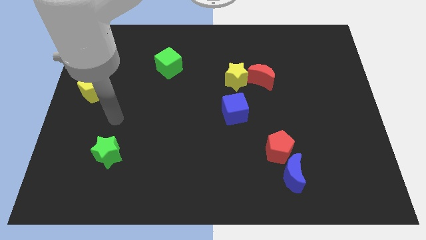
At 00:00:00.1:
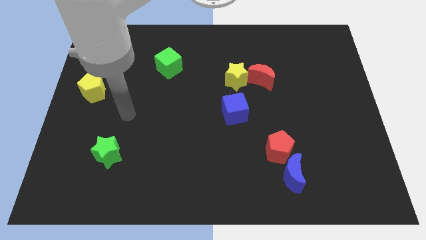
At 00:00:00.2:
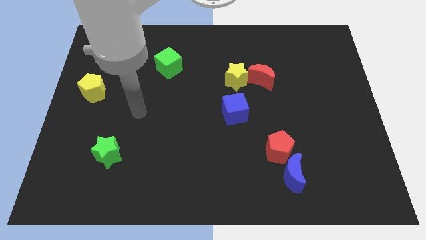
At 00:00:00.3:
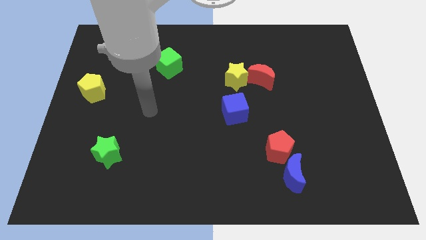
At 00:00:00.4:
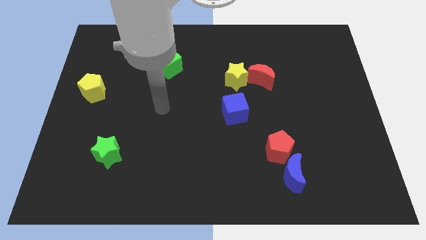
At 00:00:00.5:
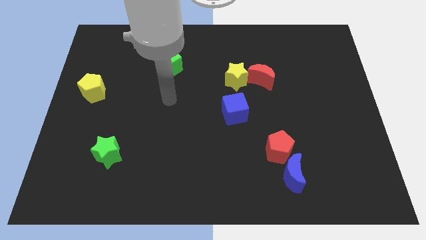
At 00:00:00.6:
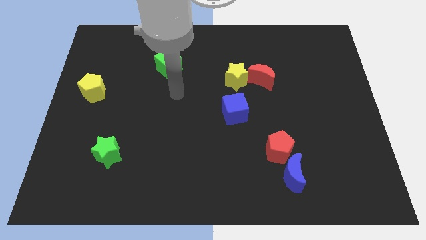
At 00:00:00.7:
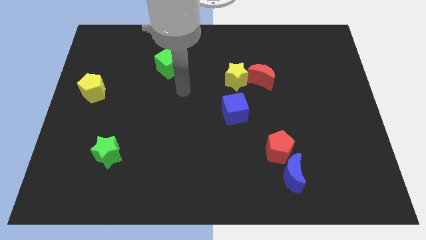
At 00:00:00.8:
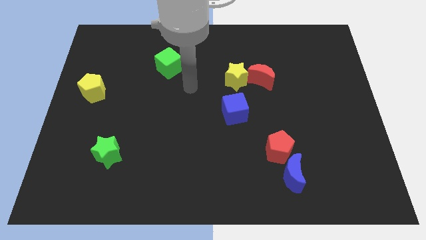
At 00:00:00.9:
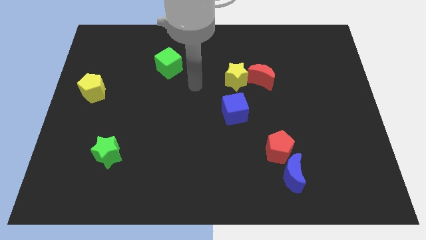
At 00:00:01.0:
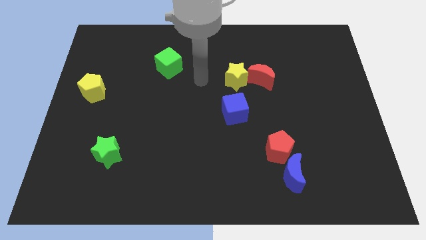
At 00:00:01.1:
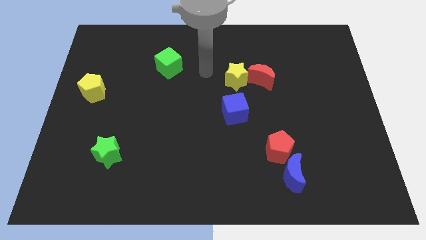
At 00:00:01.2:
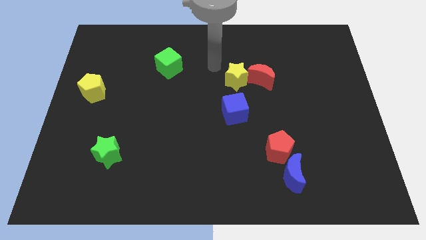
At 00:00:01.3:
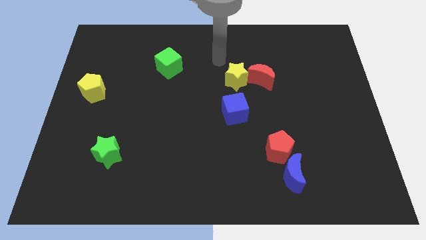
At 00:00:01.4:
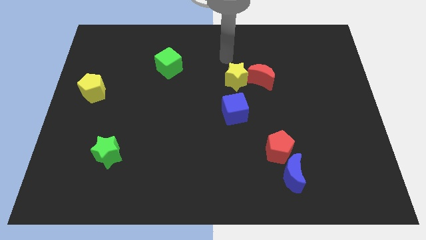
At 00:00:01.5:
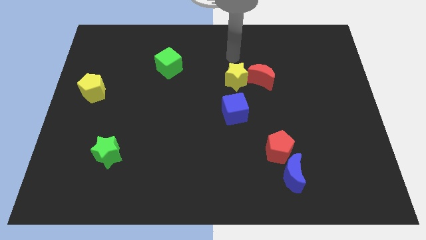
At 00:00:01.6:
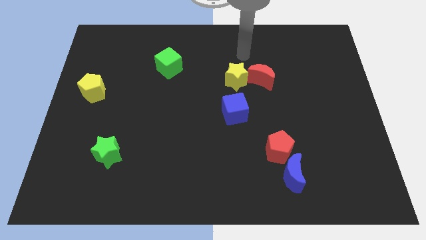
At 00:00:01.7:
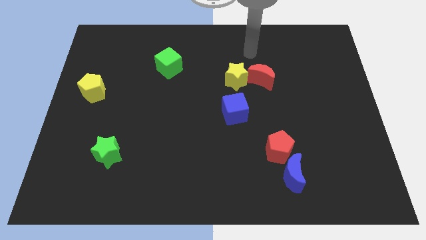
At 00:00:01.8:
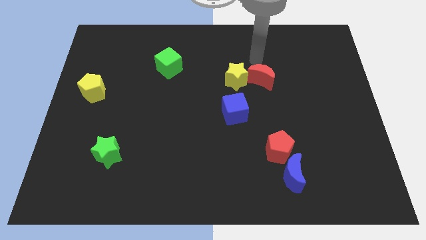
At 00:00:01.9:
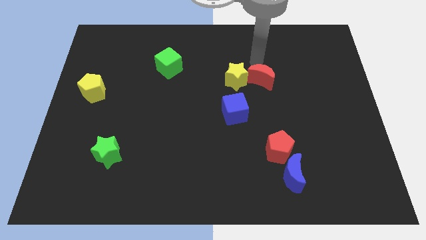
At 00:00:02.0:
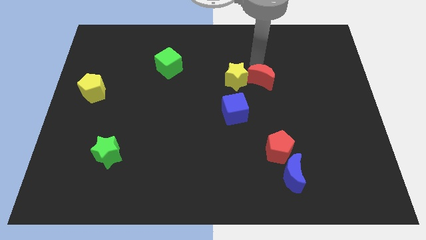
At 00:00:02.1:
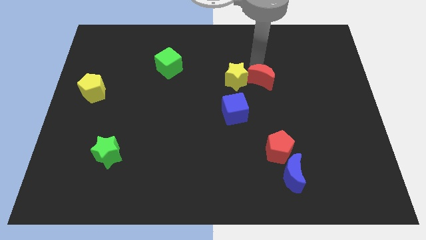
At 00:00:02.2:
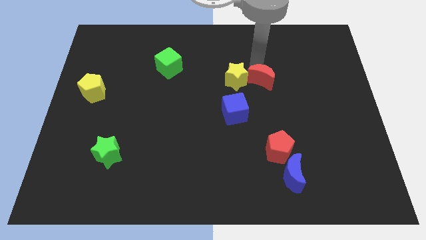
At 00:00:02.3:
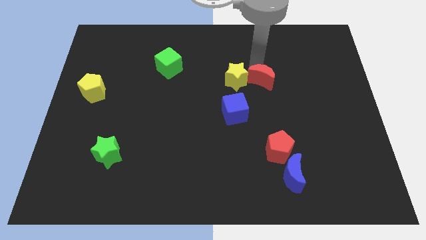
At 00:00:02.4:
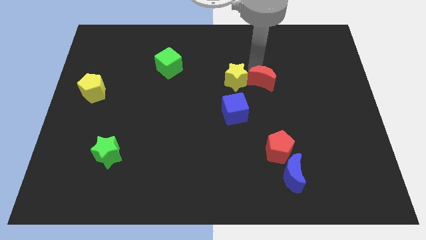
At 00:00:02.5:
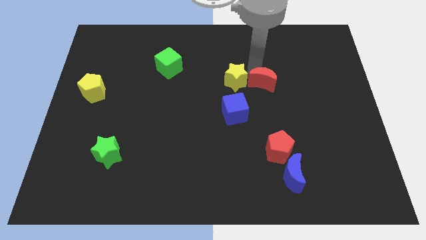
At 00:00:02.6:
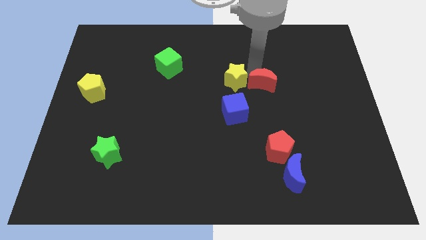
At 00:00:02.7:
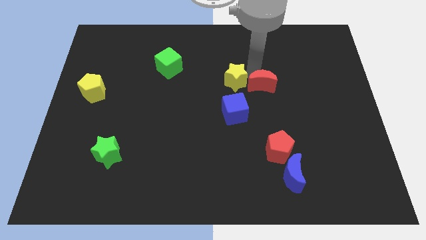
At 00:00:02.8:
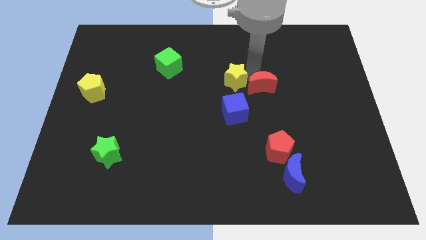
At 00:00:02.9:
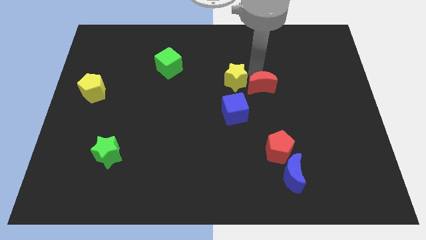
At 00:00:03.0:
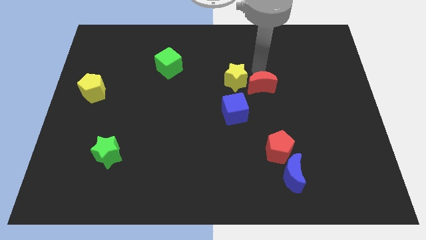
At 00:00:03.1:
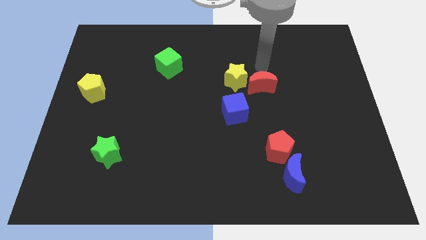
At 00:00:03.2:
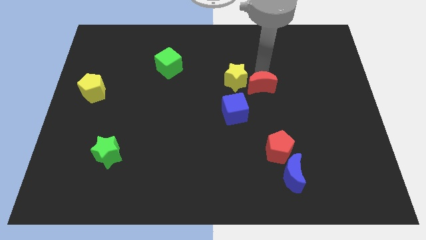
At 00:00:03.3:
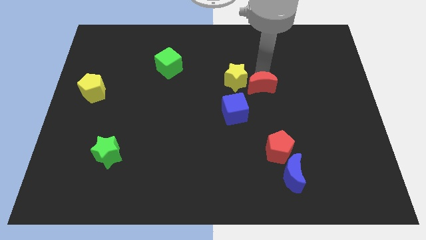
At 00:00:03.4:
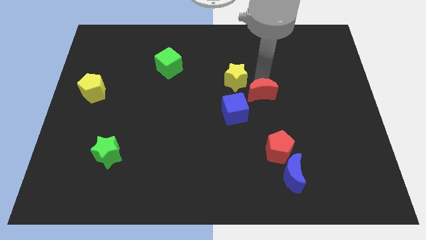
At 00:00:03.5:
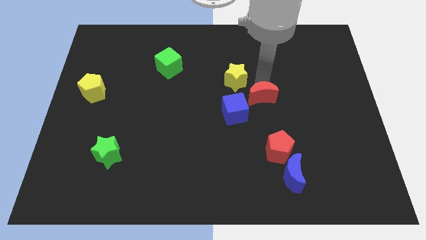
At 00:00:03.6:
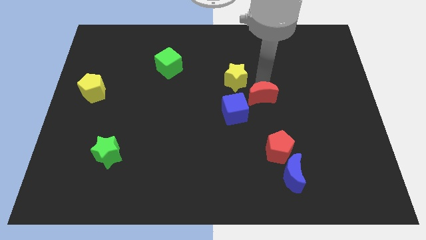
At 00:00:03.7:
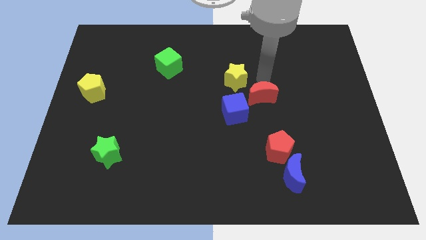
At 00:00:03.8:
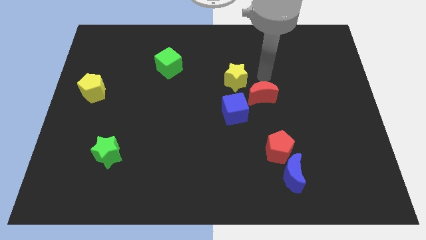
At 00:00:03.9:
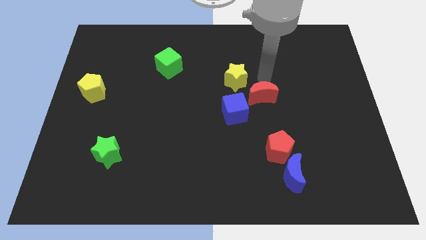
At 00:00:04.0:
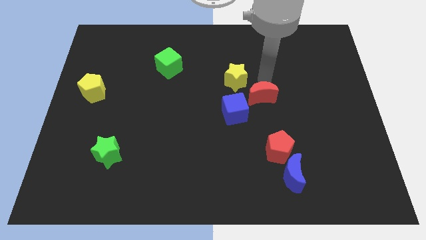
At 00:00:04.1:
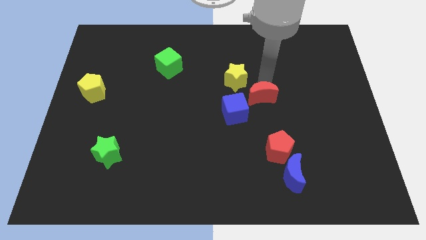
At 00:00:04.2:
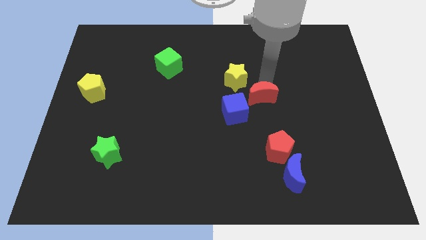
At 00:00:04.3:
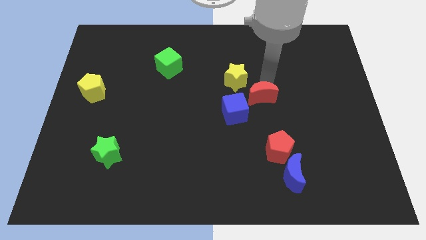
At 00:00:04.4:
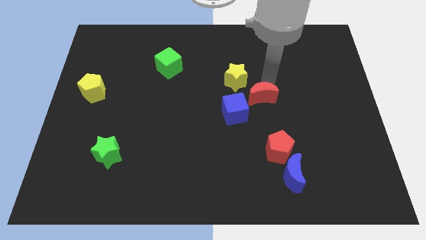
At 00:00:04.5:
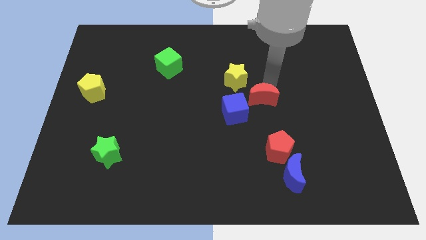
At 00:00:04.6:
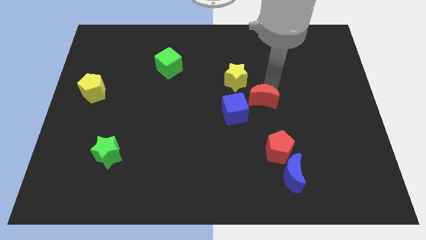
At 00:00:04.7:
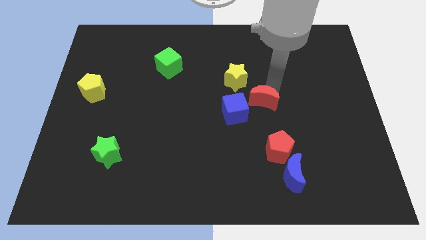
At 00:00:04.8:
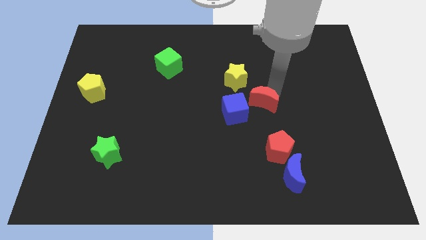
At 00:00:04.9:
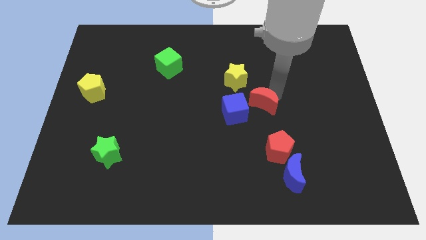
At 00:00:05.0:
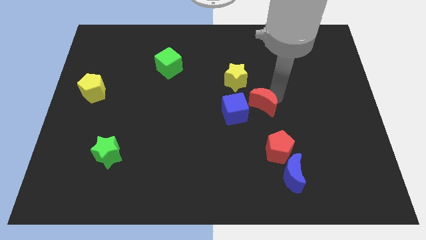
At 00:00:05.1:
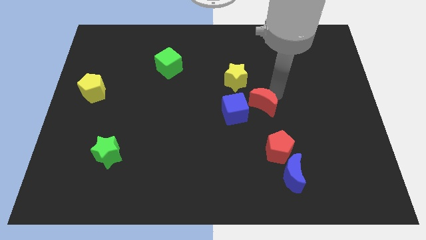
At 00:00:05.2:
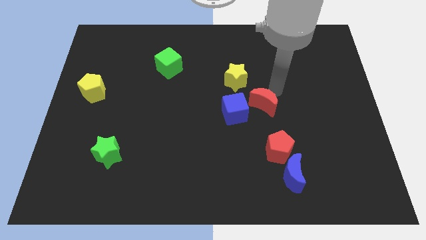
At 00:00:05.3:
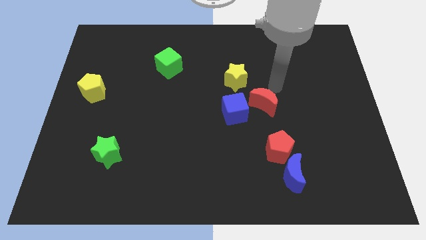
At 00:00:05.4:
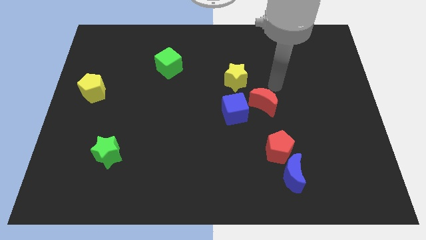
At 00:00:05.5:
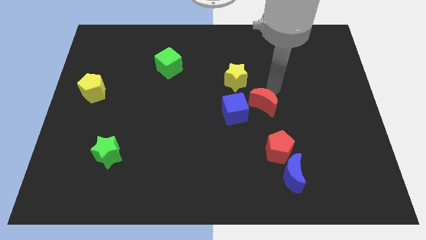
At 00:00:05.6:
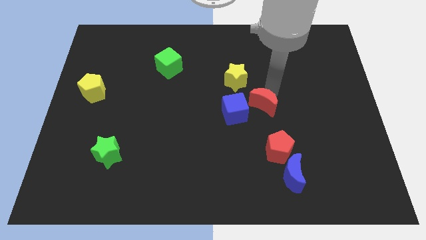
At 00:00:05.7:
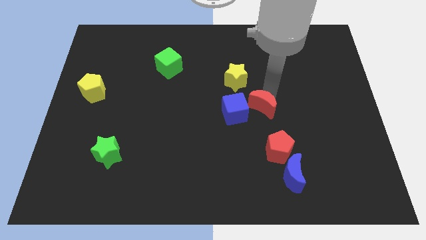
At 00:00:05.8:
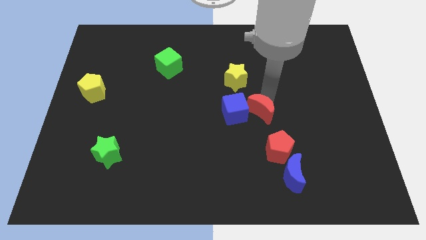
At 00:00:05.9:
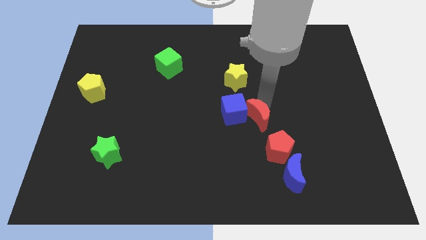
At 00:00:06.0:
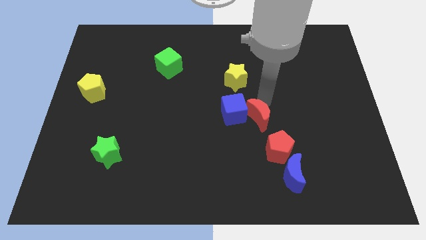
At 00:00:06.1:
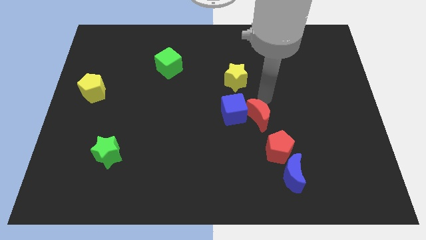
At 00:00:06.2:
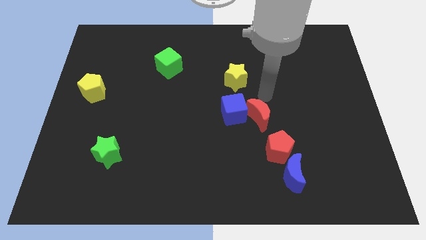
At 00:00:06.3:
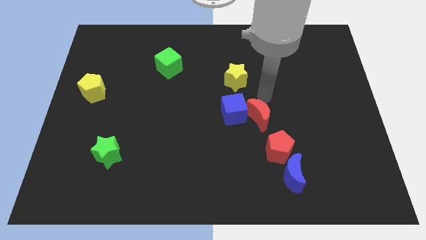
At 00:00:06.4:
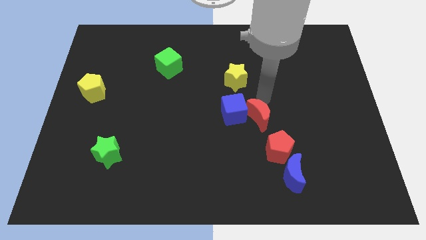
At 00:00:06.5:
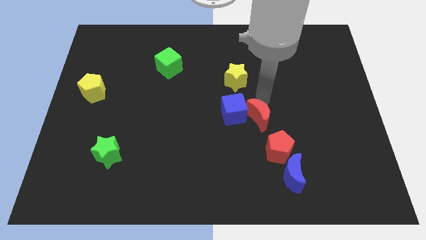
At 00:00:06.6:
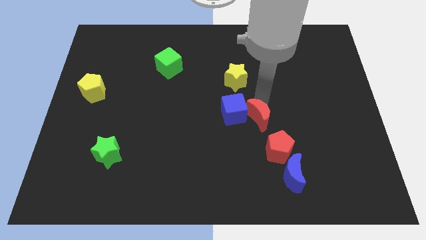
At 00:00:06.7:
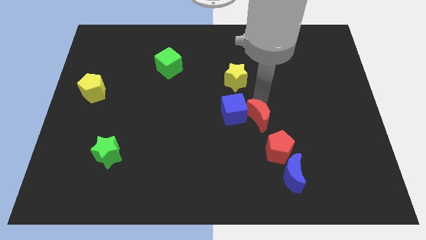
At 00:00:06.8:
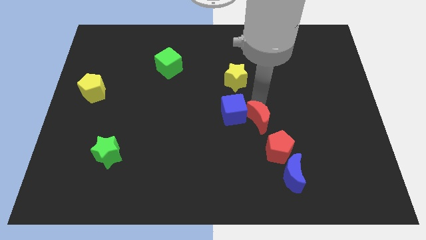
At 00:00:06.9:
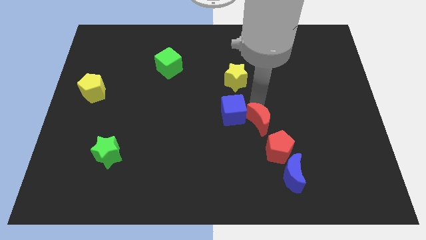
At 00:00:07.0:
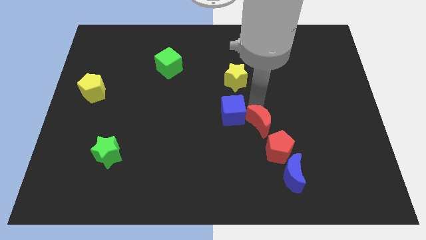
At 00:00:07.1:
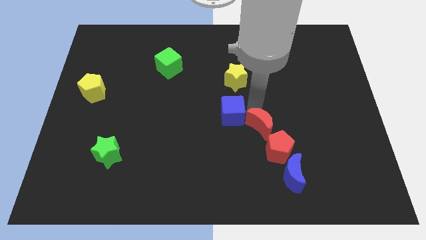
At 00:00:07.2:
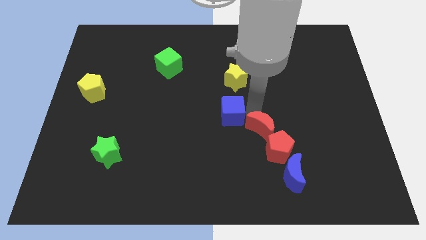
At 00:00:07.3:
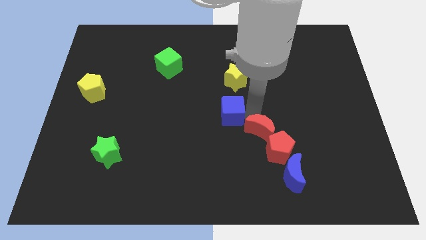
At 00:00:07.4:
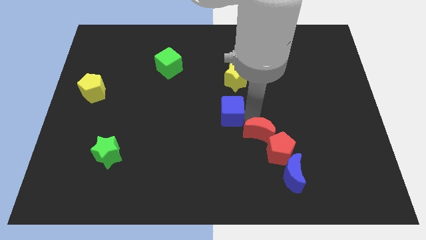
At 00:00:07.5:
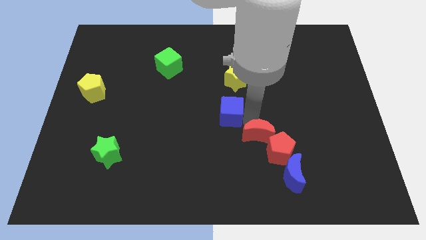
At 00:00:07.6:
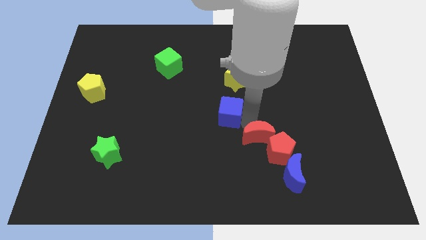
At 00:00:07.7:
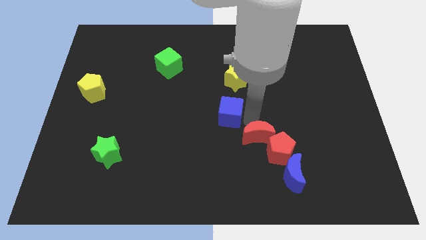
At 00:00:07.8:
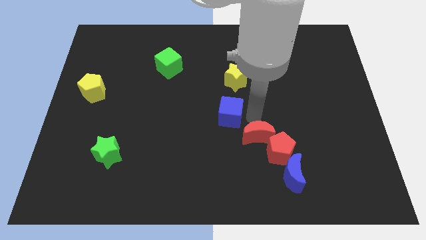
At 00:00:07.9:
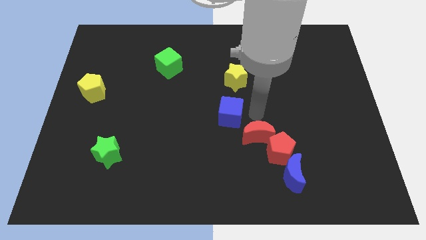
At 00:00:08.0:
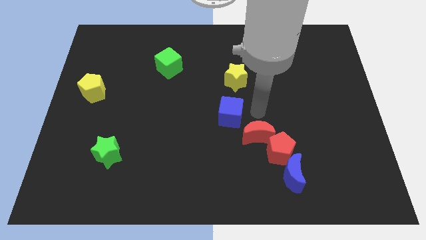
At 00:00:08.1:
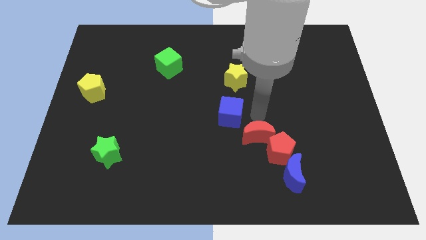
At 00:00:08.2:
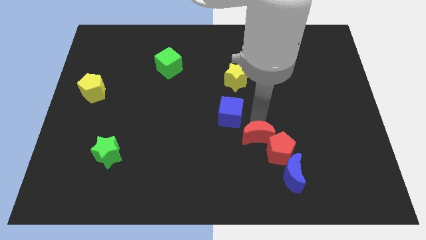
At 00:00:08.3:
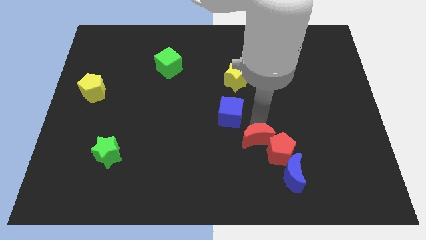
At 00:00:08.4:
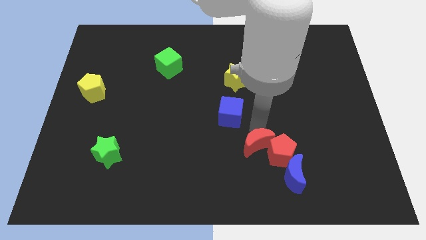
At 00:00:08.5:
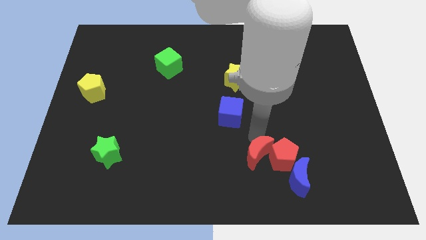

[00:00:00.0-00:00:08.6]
push the red moon diagonally down and to the left of the red pentagon
